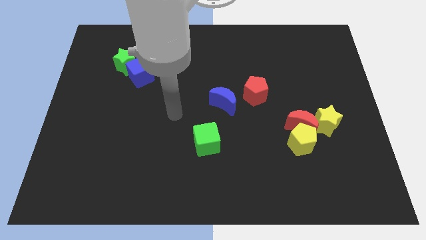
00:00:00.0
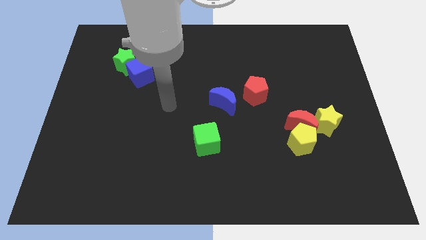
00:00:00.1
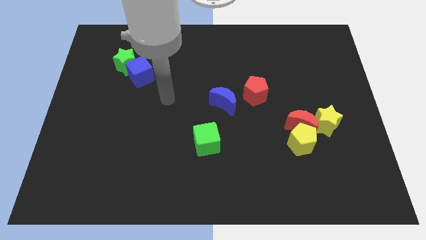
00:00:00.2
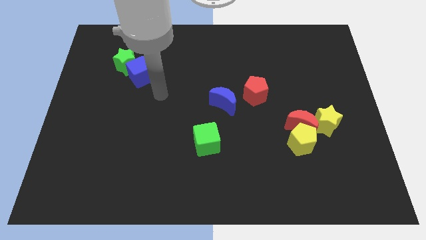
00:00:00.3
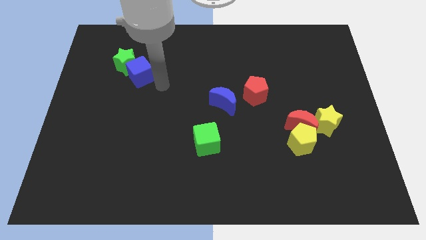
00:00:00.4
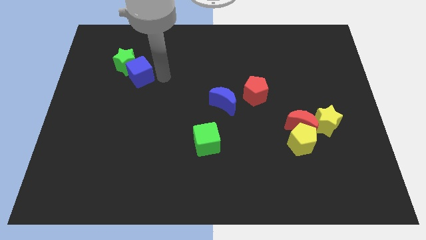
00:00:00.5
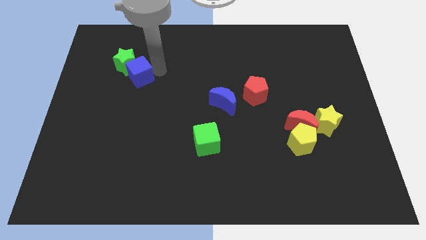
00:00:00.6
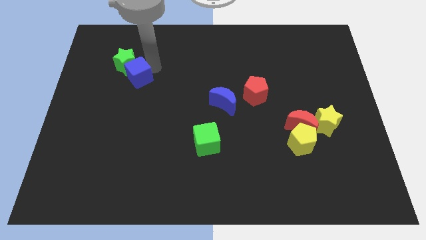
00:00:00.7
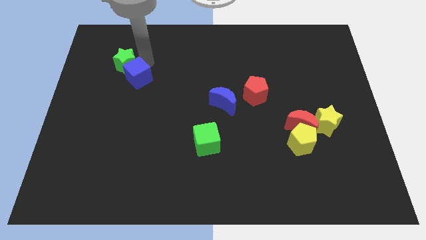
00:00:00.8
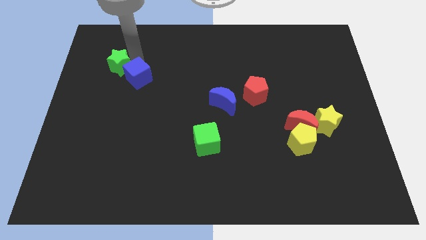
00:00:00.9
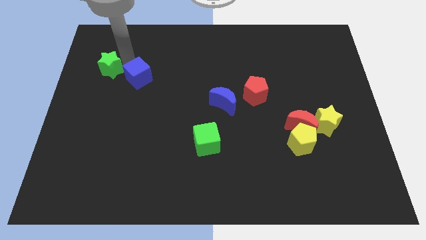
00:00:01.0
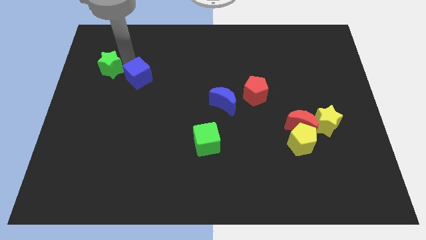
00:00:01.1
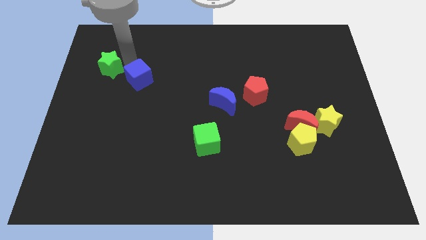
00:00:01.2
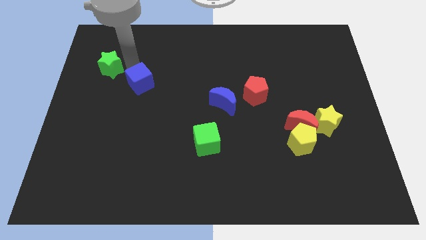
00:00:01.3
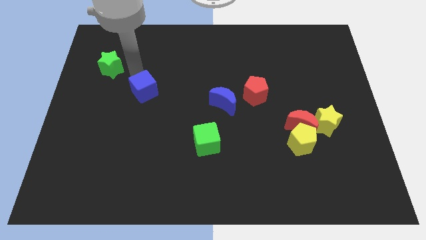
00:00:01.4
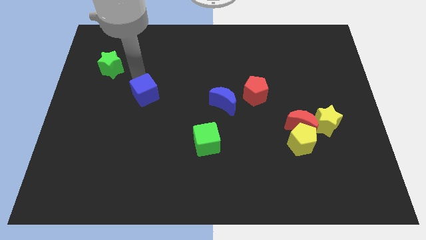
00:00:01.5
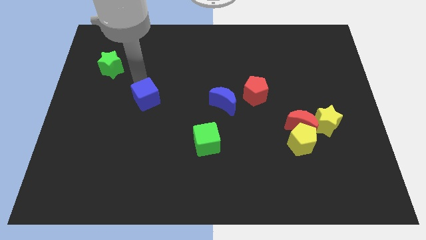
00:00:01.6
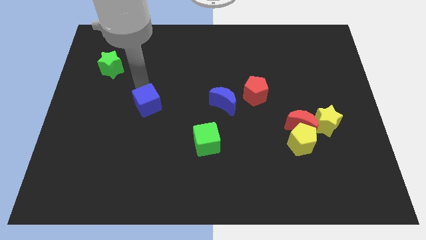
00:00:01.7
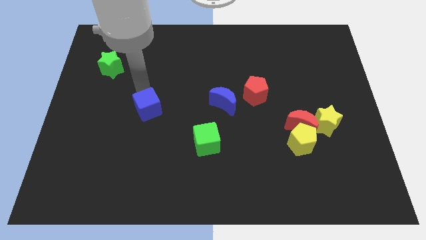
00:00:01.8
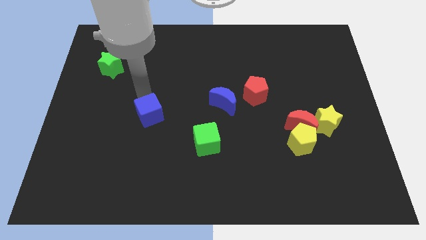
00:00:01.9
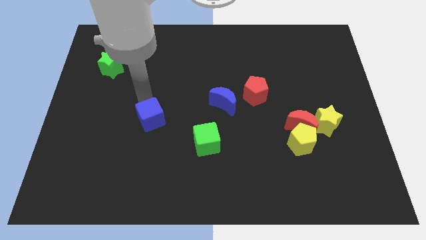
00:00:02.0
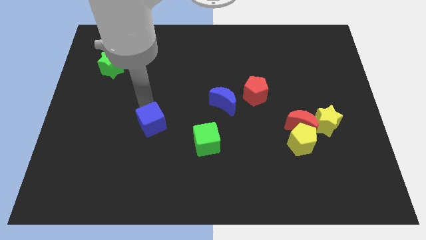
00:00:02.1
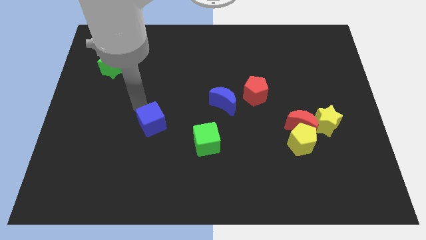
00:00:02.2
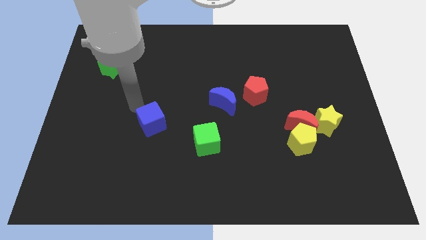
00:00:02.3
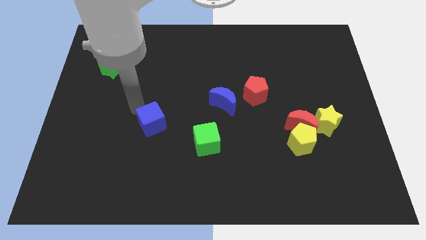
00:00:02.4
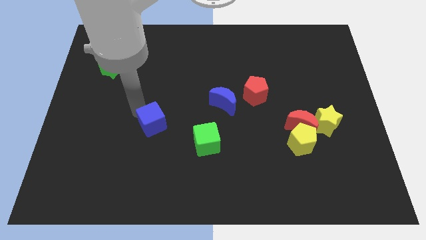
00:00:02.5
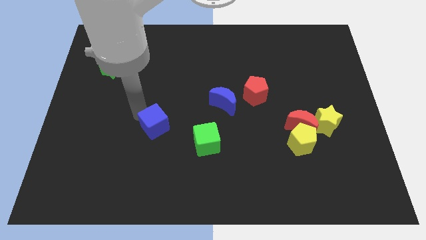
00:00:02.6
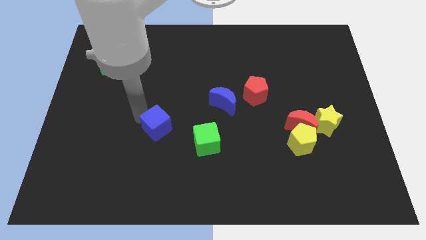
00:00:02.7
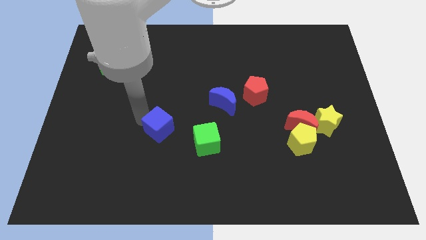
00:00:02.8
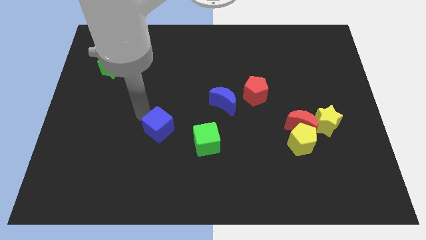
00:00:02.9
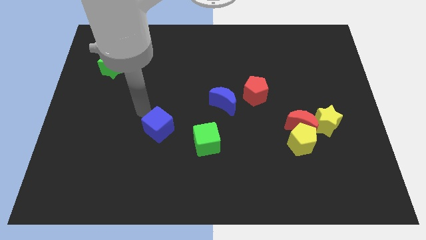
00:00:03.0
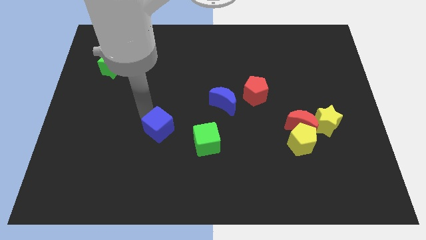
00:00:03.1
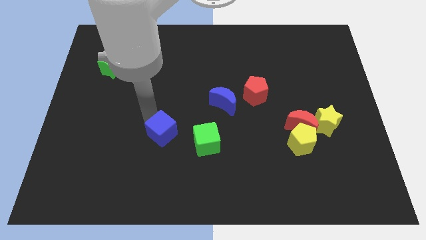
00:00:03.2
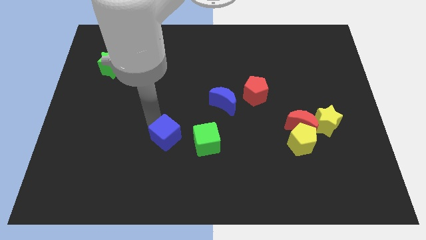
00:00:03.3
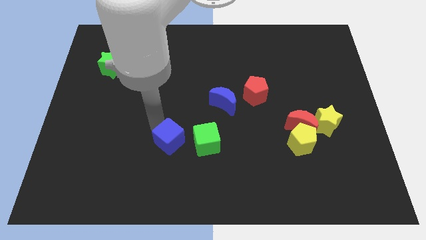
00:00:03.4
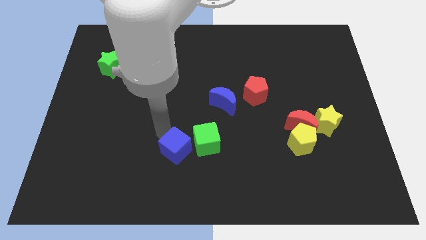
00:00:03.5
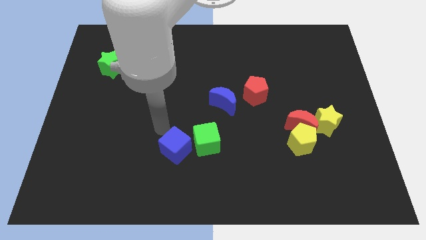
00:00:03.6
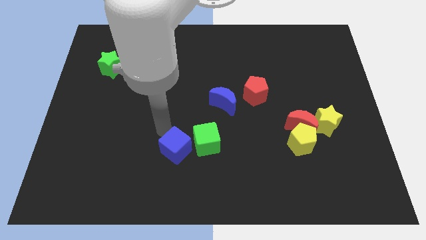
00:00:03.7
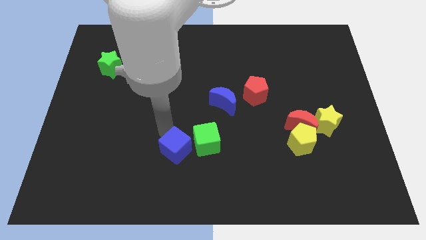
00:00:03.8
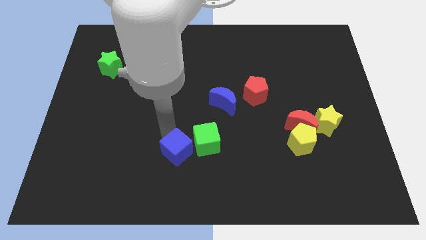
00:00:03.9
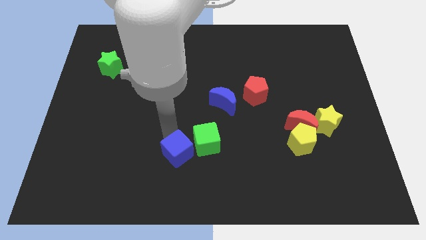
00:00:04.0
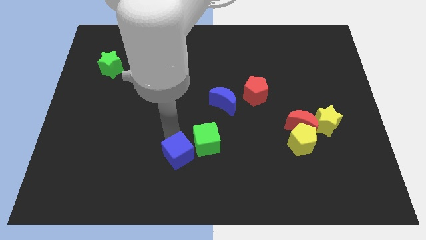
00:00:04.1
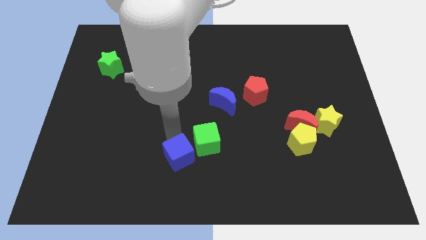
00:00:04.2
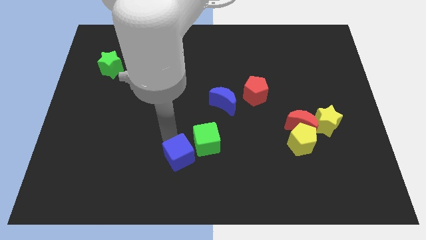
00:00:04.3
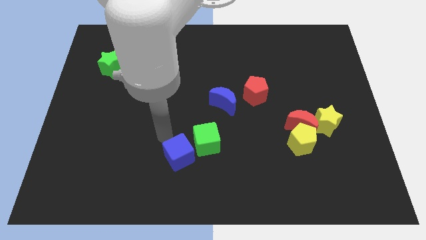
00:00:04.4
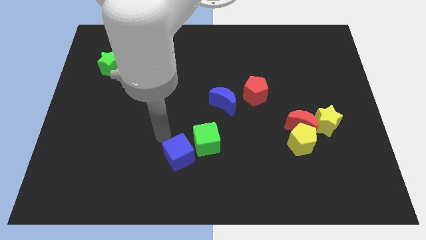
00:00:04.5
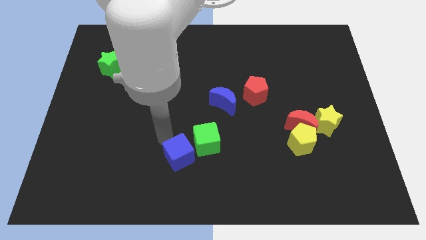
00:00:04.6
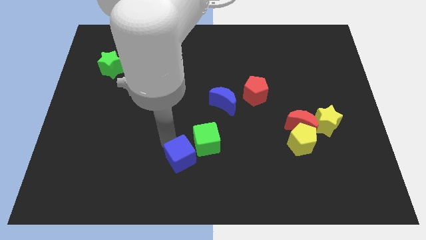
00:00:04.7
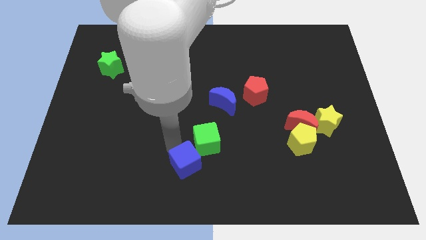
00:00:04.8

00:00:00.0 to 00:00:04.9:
push the blue cube to the bottom

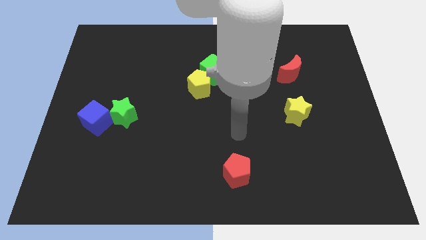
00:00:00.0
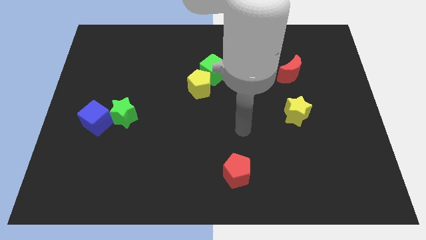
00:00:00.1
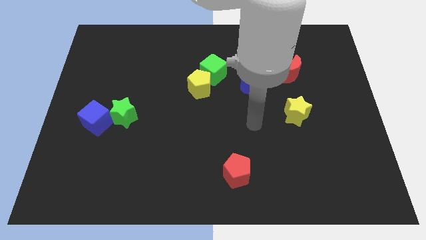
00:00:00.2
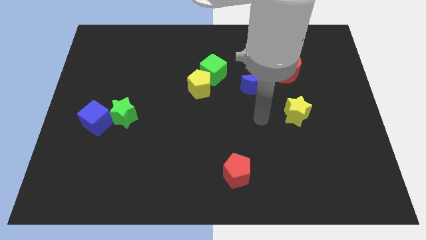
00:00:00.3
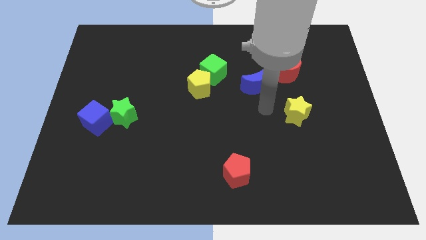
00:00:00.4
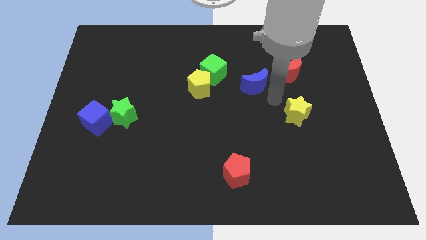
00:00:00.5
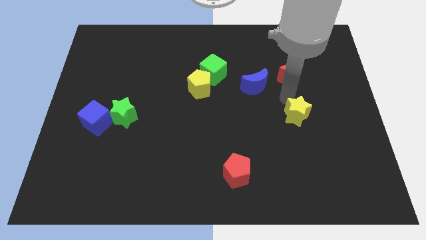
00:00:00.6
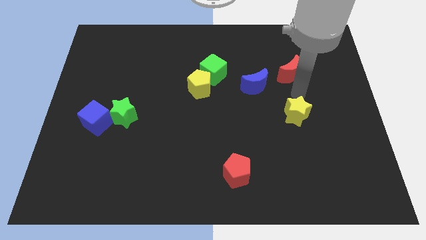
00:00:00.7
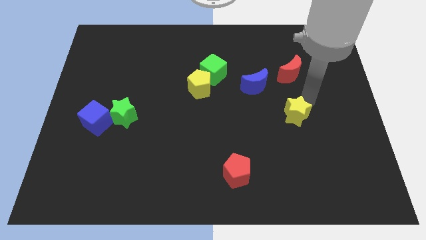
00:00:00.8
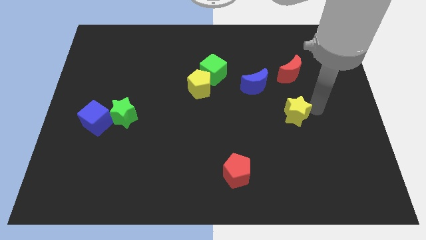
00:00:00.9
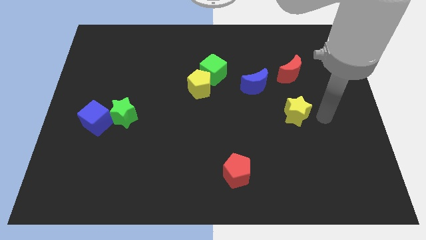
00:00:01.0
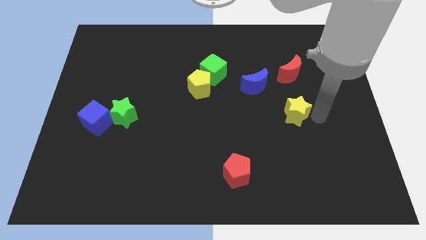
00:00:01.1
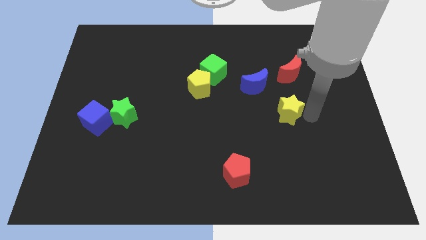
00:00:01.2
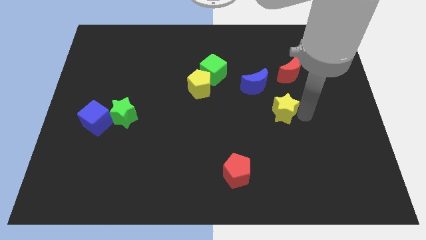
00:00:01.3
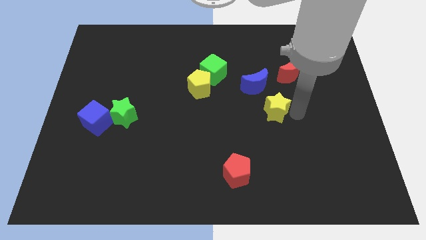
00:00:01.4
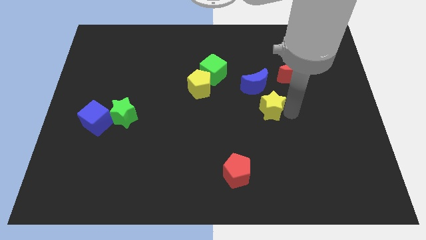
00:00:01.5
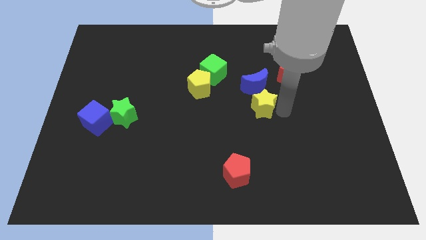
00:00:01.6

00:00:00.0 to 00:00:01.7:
slide the yellow star to the center
